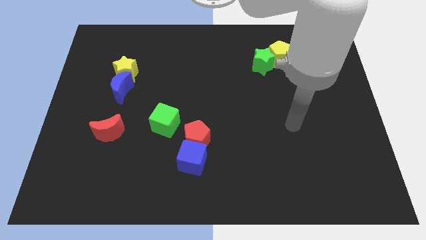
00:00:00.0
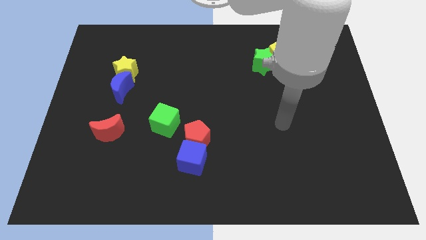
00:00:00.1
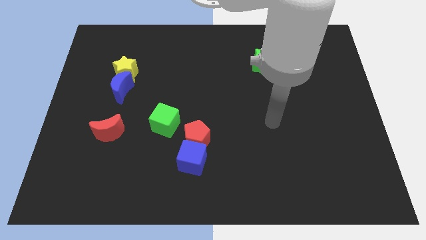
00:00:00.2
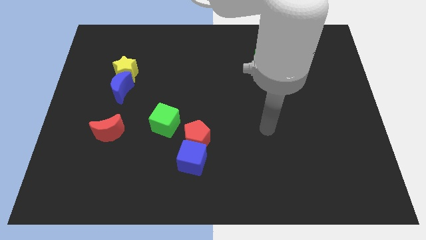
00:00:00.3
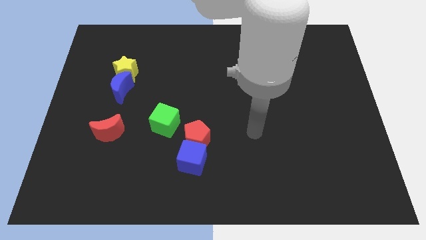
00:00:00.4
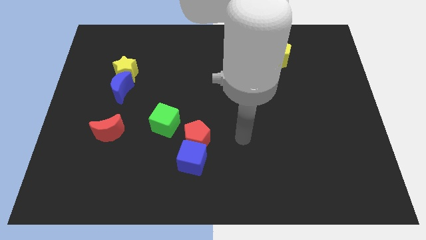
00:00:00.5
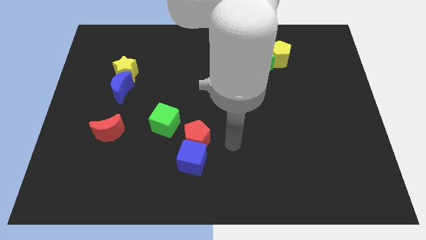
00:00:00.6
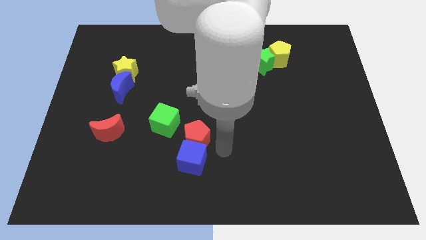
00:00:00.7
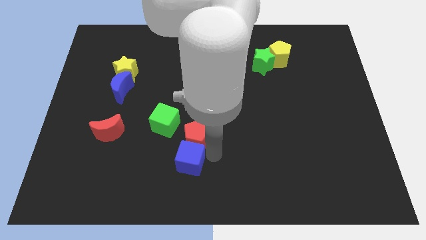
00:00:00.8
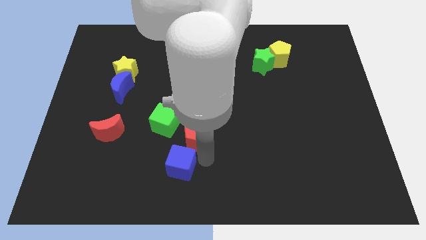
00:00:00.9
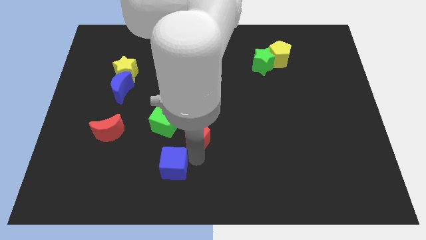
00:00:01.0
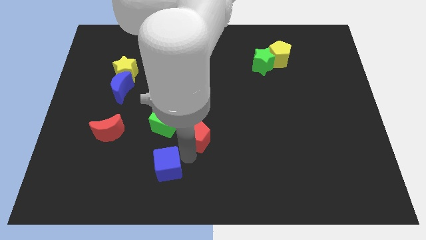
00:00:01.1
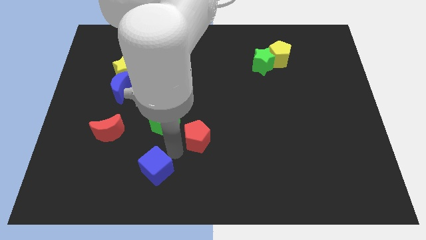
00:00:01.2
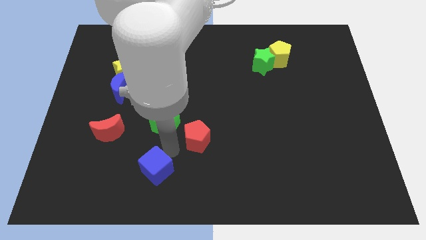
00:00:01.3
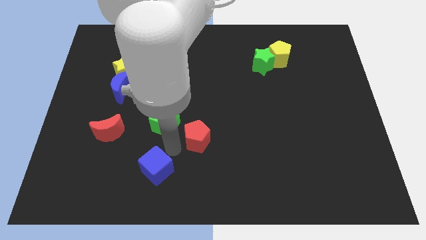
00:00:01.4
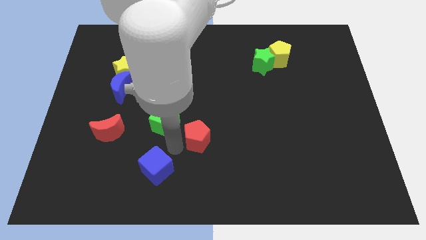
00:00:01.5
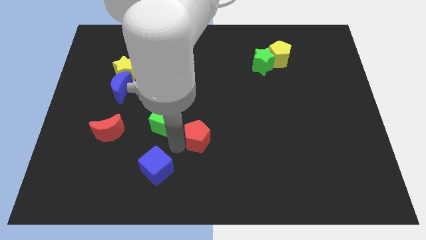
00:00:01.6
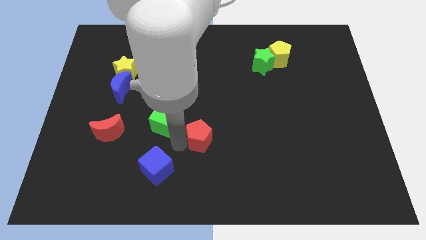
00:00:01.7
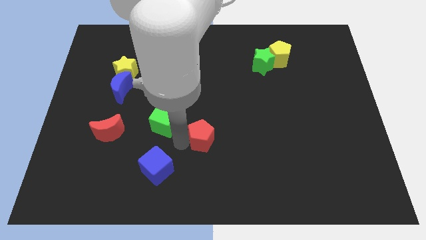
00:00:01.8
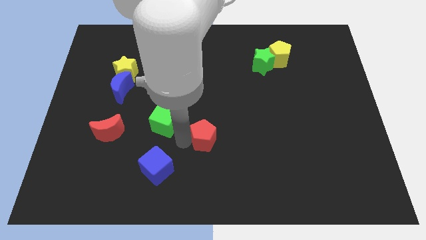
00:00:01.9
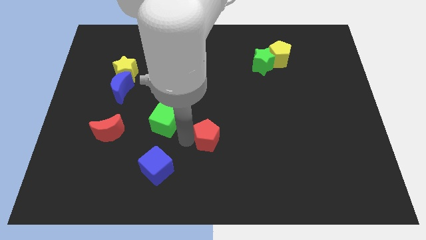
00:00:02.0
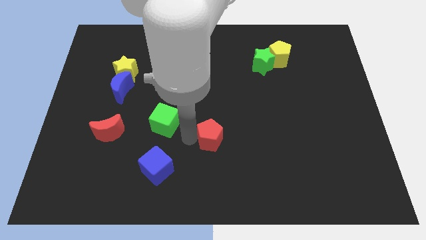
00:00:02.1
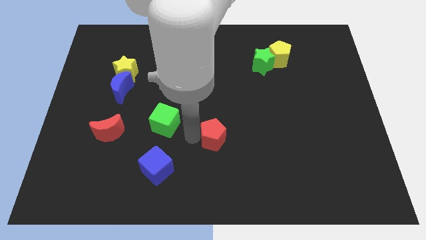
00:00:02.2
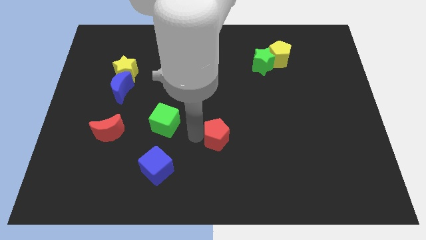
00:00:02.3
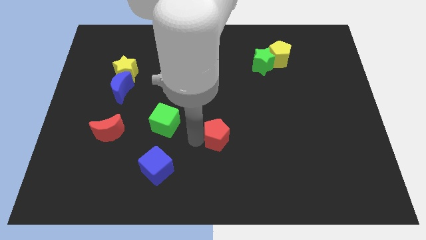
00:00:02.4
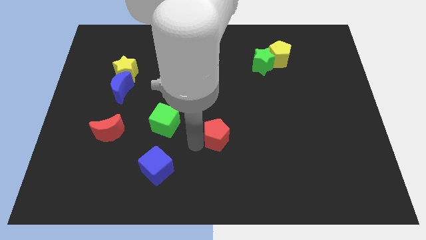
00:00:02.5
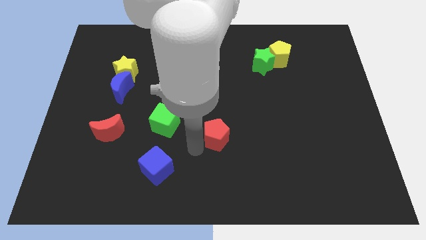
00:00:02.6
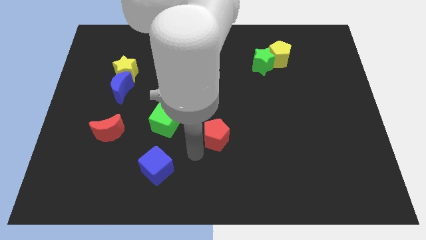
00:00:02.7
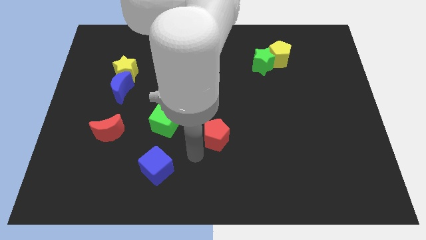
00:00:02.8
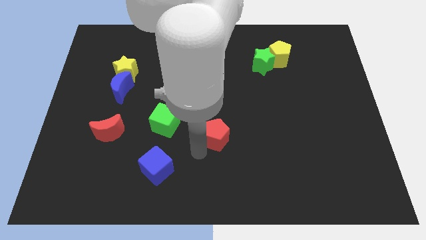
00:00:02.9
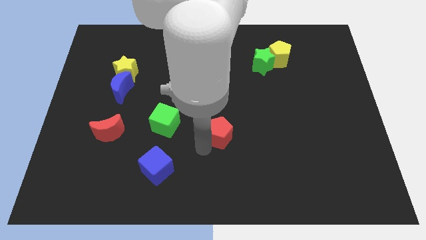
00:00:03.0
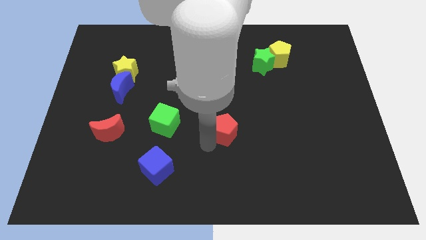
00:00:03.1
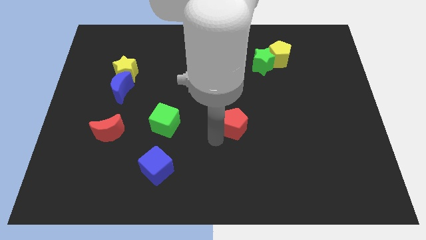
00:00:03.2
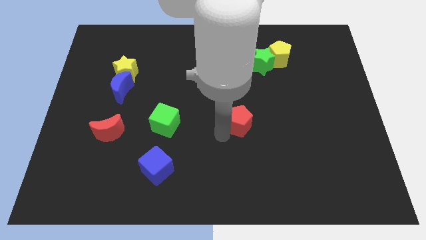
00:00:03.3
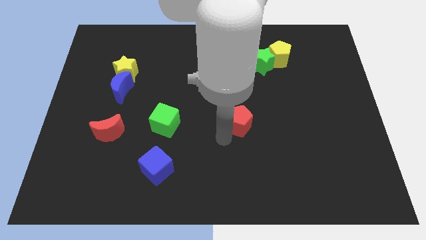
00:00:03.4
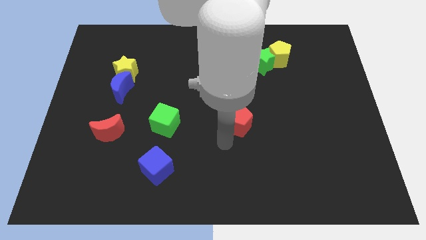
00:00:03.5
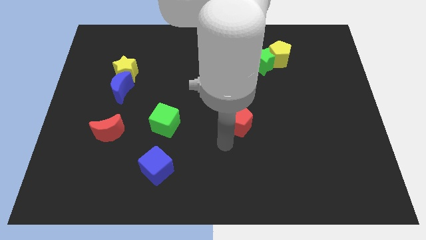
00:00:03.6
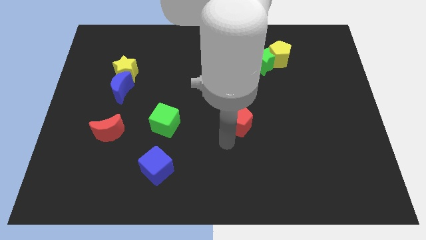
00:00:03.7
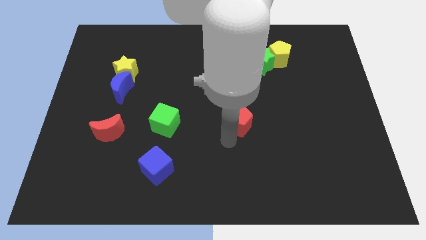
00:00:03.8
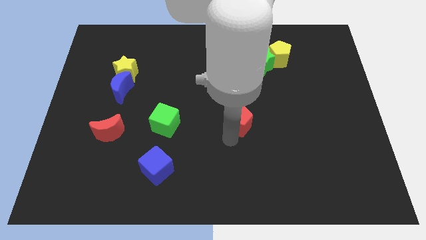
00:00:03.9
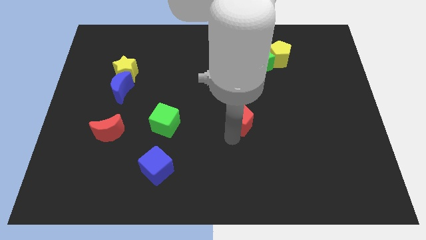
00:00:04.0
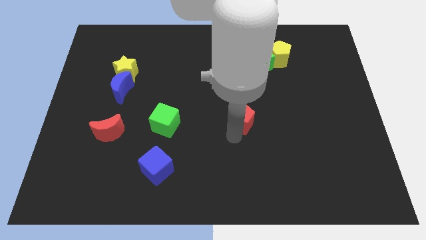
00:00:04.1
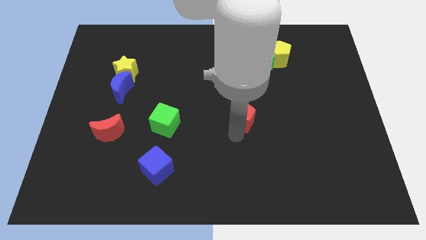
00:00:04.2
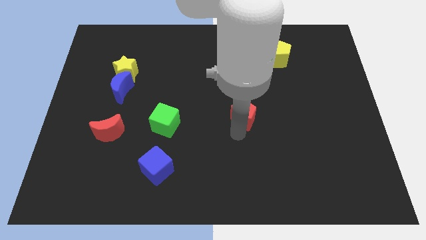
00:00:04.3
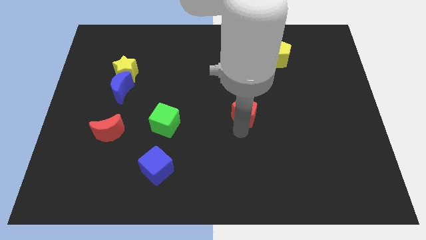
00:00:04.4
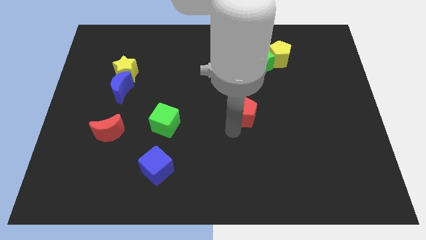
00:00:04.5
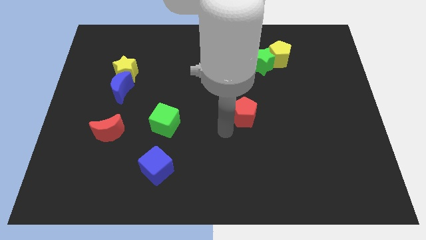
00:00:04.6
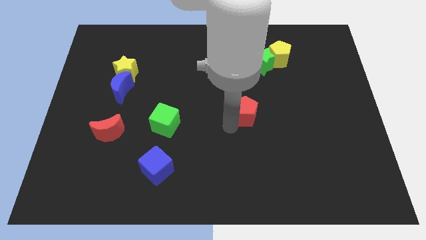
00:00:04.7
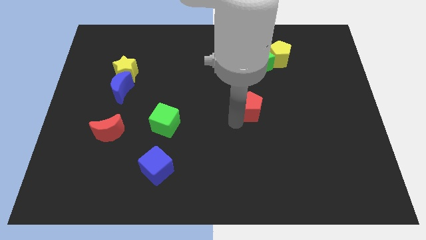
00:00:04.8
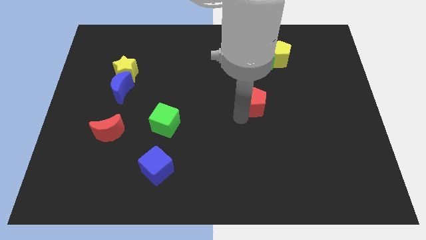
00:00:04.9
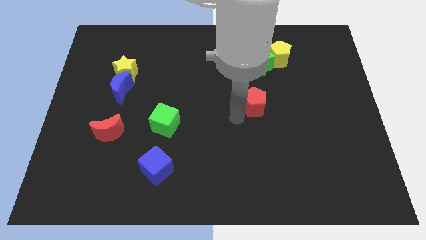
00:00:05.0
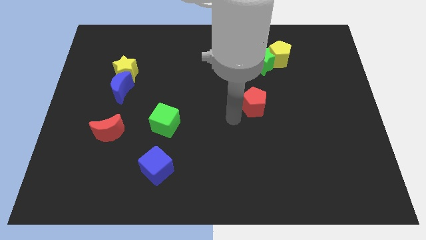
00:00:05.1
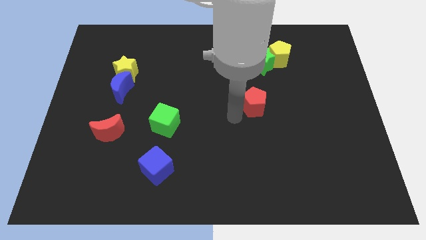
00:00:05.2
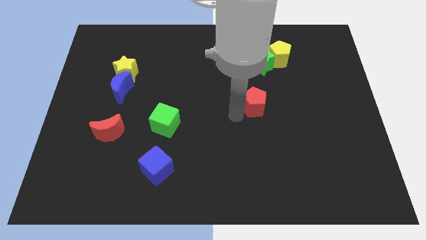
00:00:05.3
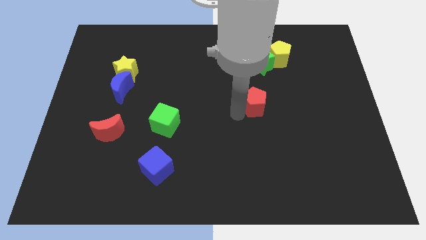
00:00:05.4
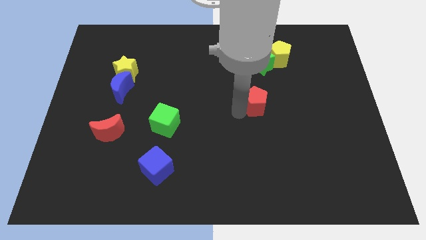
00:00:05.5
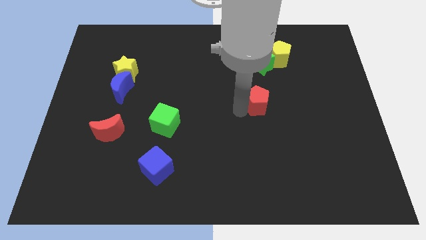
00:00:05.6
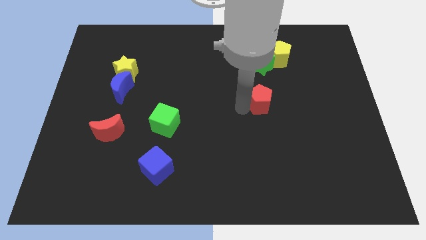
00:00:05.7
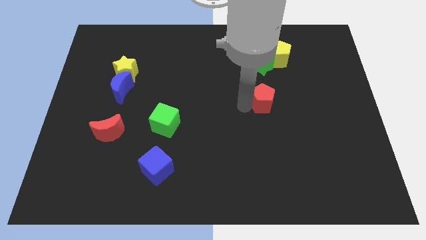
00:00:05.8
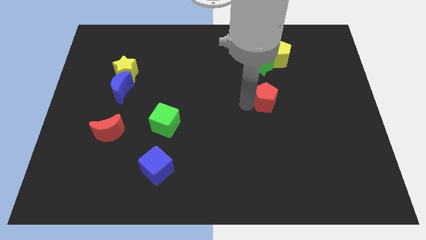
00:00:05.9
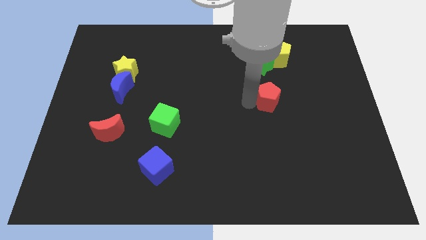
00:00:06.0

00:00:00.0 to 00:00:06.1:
slide the red pentagon to the bottom side of the yellow pentagon

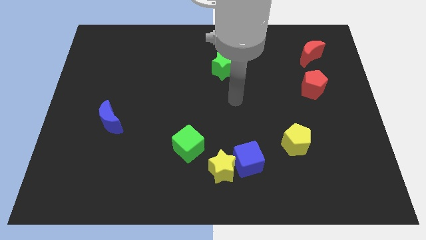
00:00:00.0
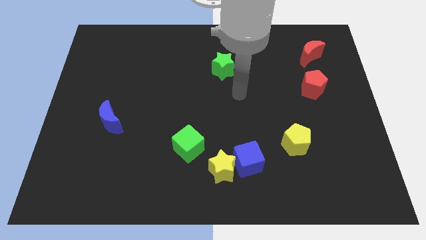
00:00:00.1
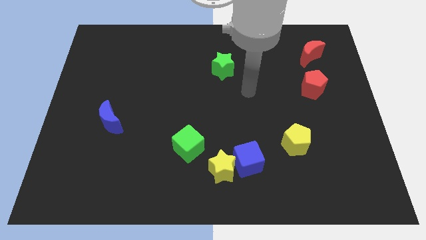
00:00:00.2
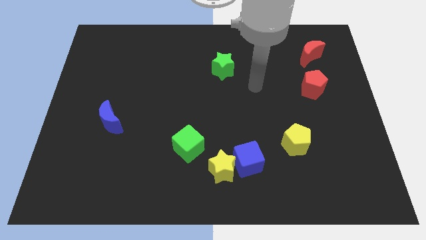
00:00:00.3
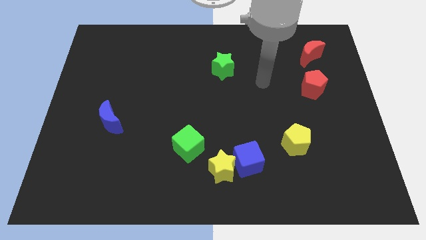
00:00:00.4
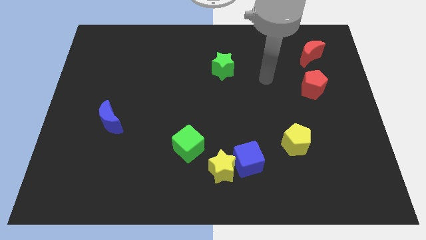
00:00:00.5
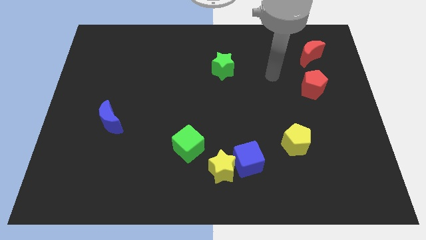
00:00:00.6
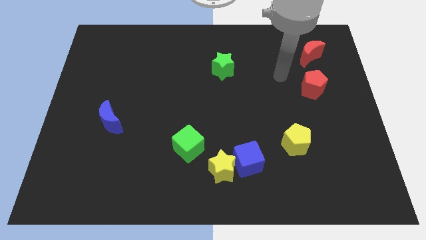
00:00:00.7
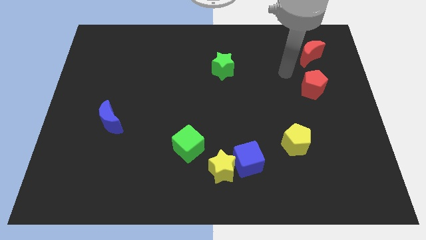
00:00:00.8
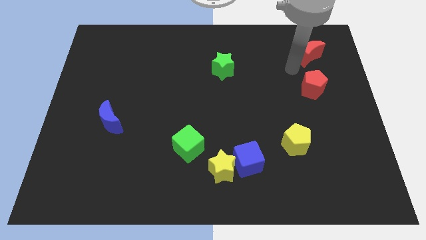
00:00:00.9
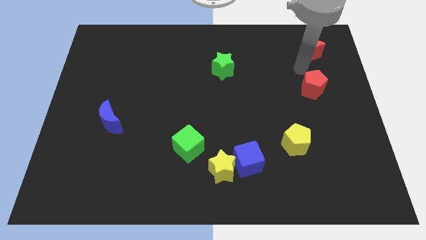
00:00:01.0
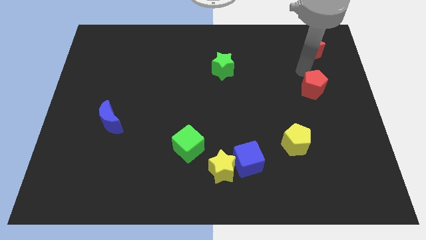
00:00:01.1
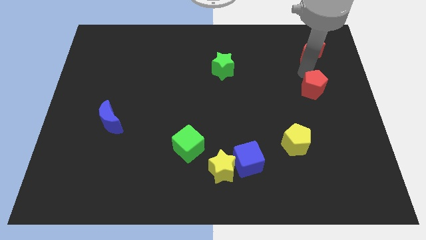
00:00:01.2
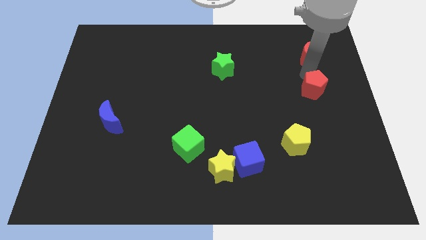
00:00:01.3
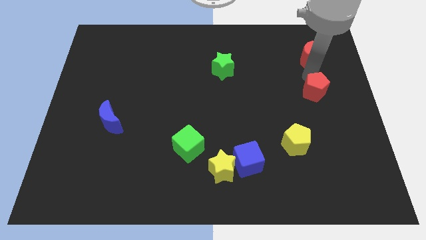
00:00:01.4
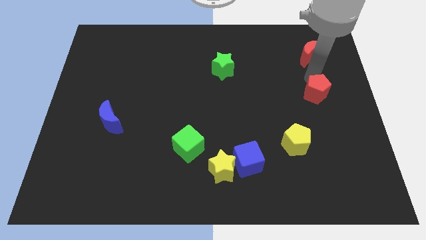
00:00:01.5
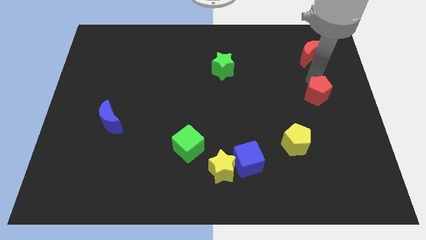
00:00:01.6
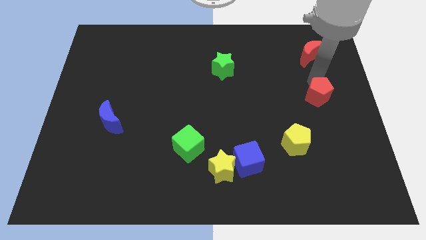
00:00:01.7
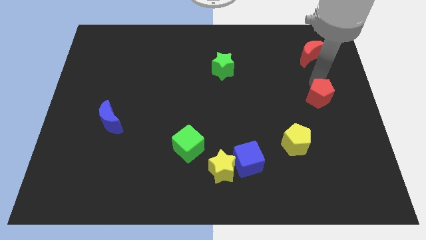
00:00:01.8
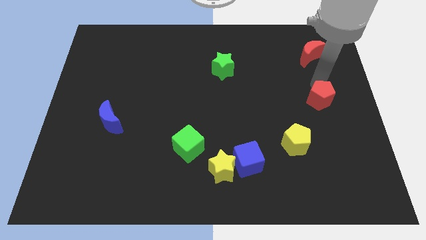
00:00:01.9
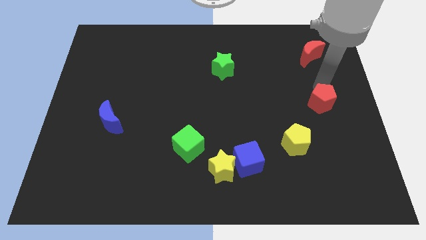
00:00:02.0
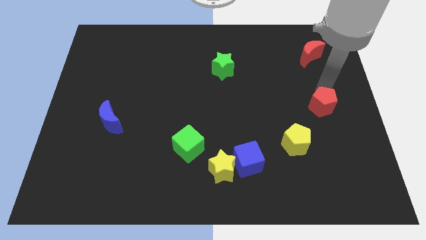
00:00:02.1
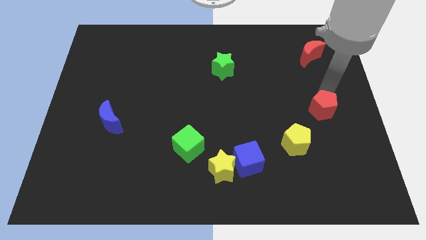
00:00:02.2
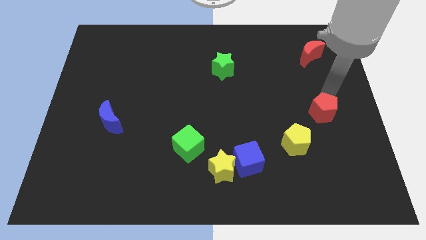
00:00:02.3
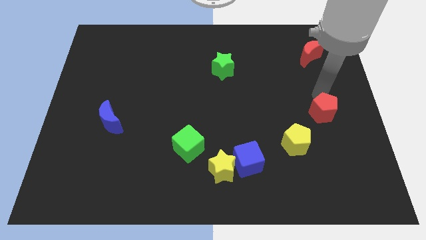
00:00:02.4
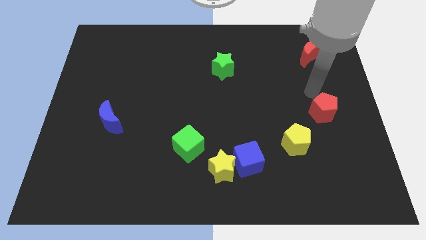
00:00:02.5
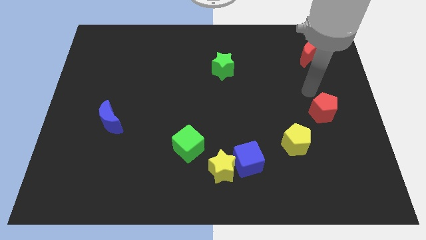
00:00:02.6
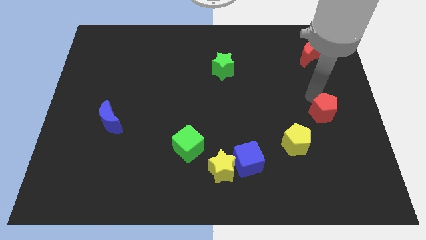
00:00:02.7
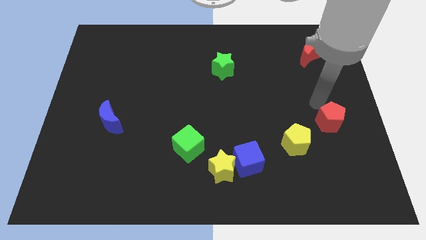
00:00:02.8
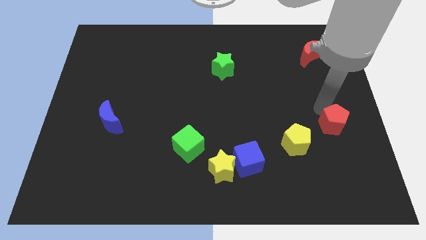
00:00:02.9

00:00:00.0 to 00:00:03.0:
move the red pentagon to the right of the yellow pentagon
